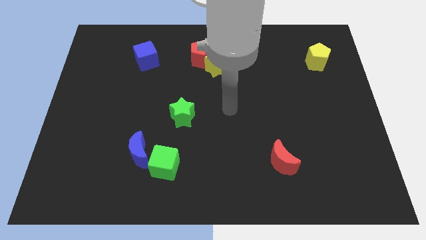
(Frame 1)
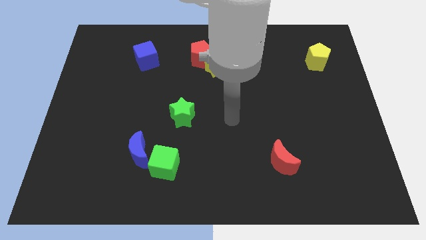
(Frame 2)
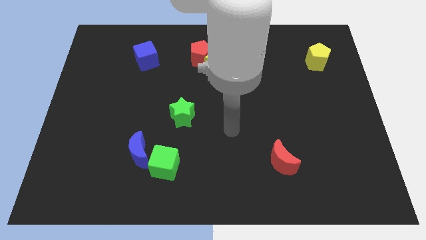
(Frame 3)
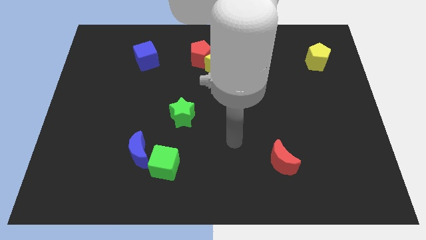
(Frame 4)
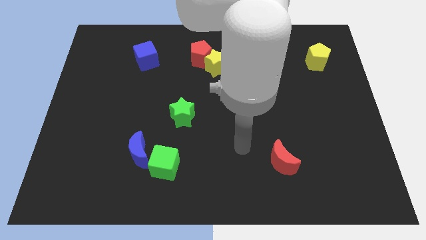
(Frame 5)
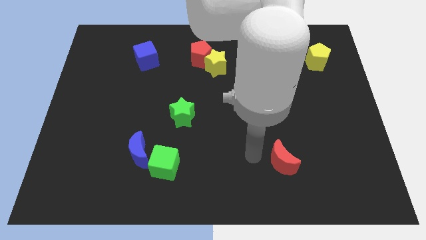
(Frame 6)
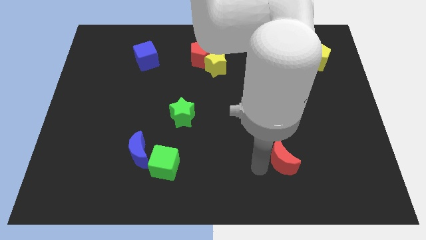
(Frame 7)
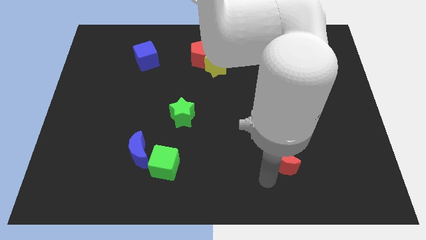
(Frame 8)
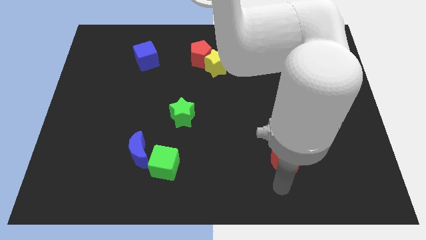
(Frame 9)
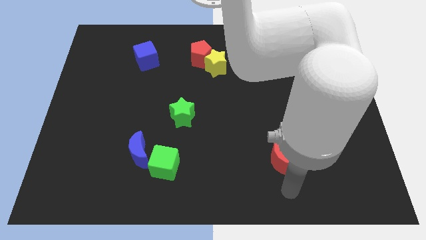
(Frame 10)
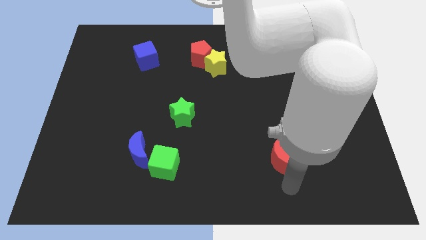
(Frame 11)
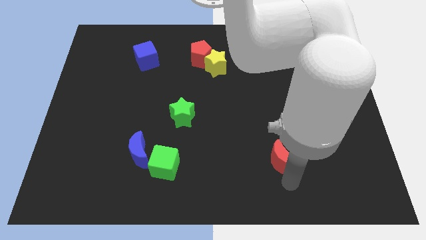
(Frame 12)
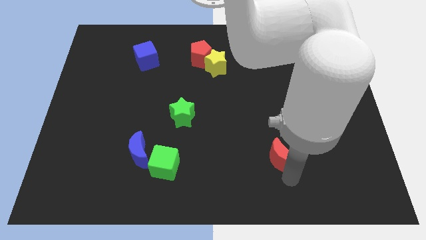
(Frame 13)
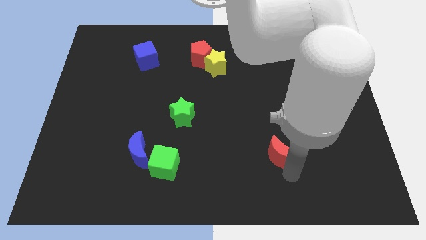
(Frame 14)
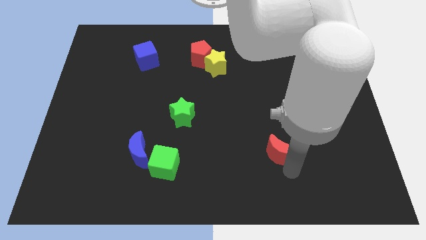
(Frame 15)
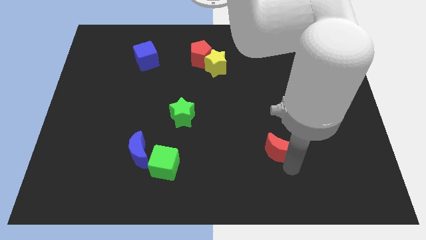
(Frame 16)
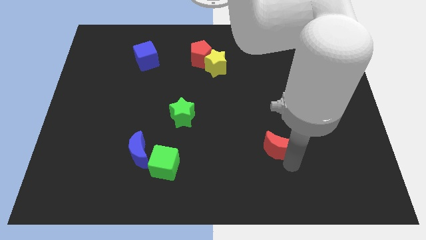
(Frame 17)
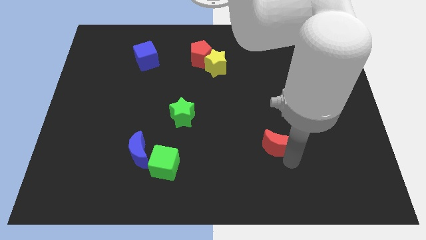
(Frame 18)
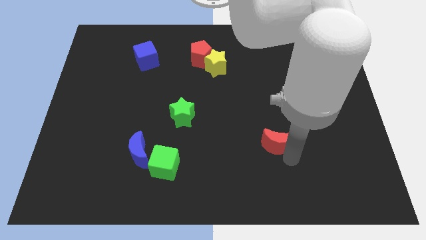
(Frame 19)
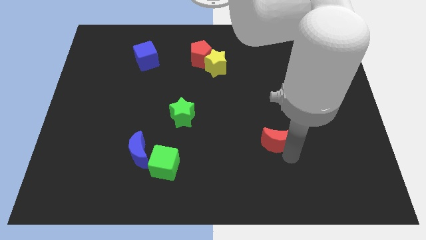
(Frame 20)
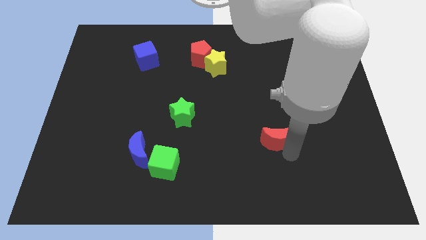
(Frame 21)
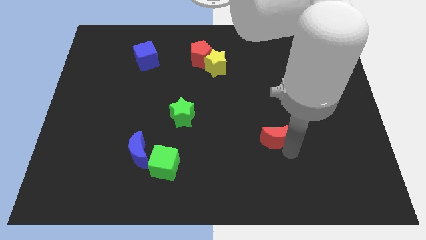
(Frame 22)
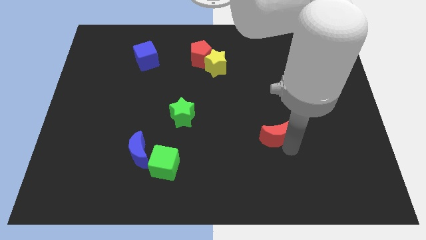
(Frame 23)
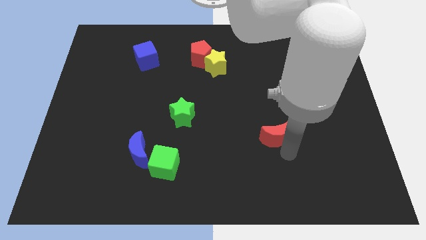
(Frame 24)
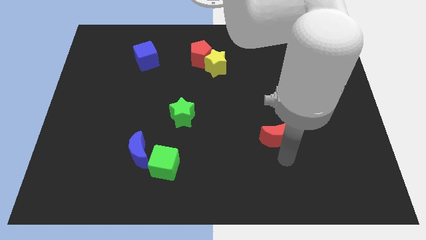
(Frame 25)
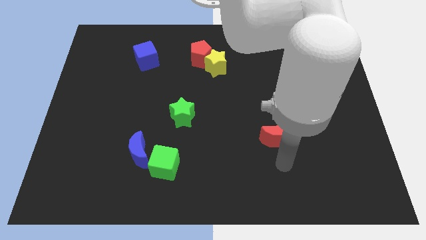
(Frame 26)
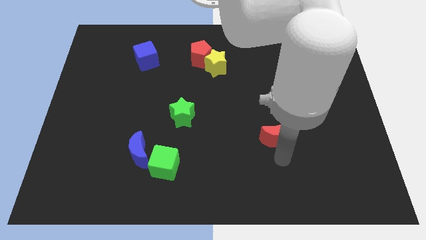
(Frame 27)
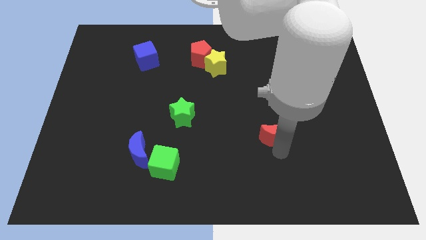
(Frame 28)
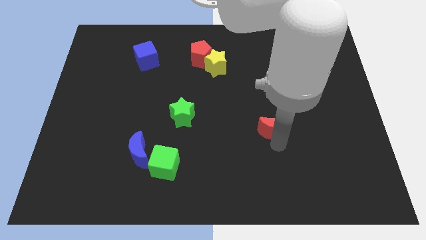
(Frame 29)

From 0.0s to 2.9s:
push the red moon a little up

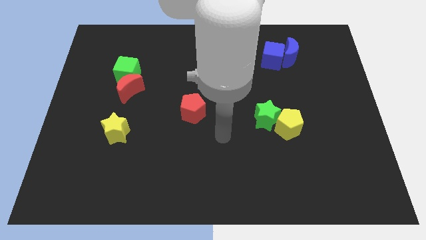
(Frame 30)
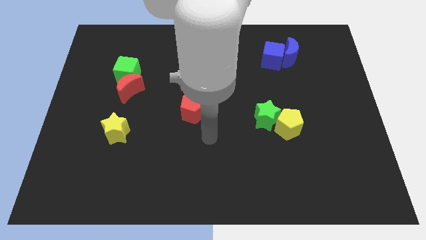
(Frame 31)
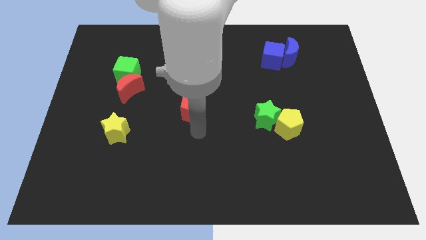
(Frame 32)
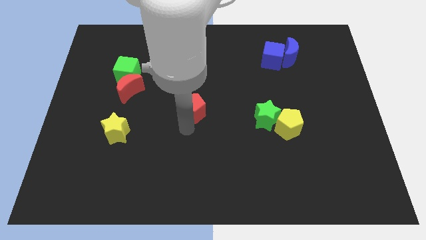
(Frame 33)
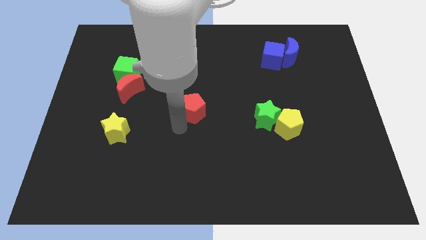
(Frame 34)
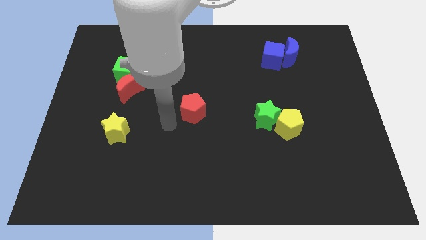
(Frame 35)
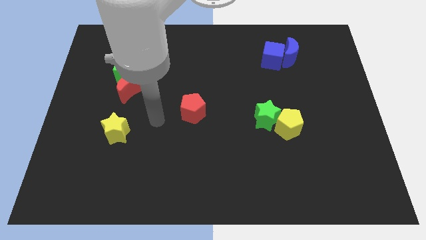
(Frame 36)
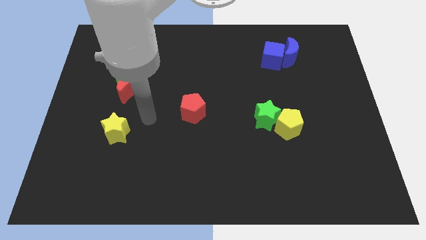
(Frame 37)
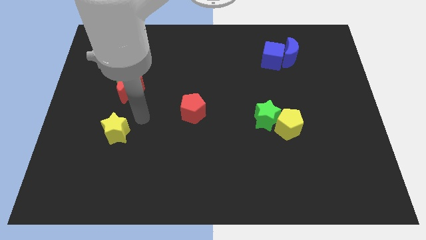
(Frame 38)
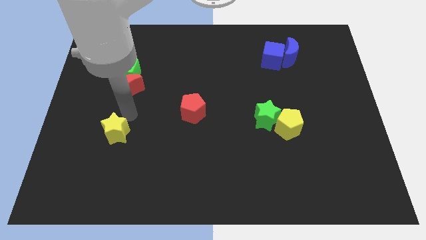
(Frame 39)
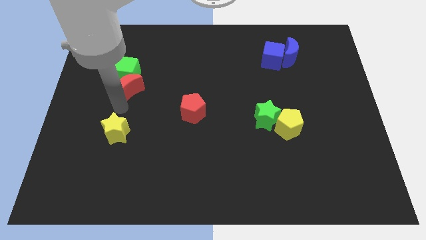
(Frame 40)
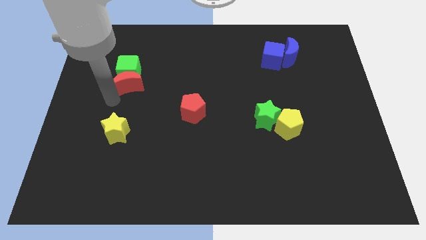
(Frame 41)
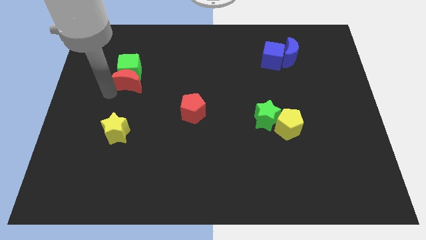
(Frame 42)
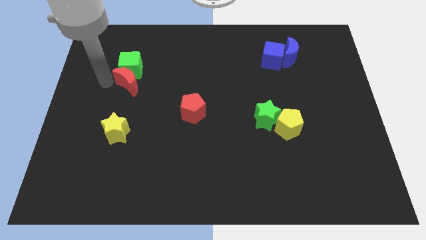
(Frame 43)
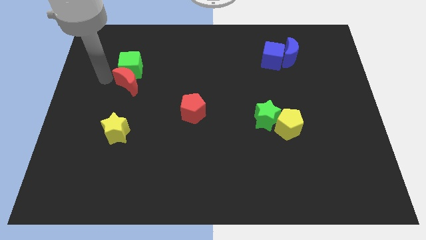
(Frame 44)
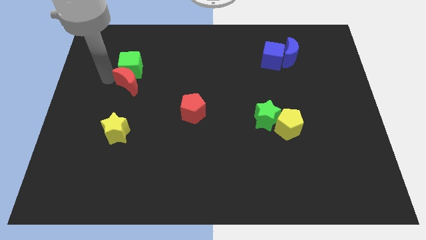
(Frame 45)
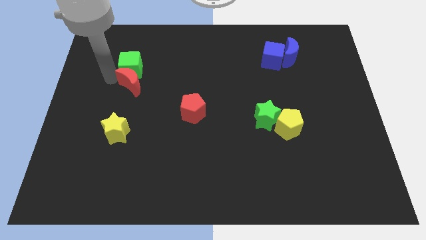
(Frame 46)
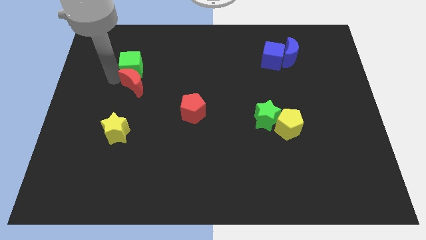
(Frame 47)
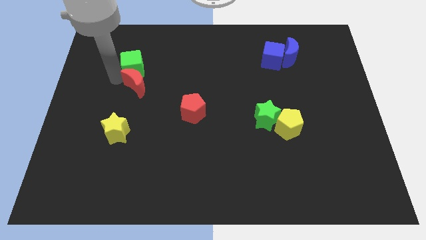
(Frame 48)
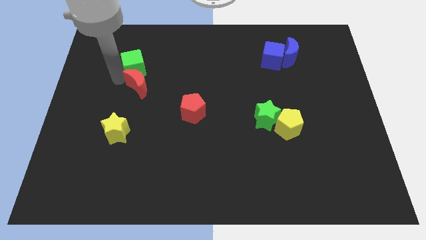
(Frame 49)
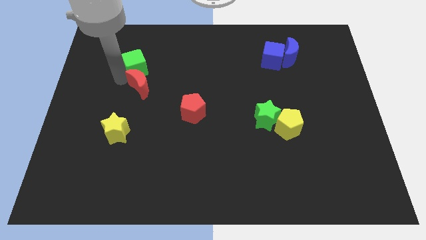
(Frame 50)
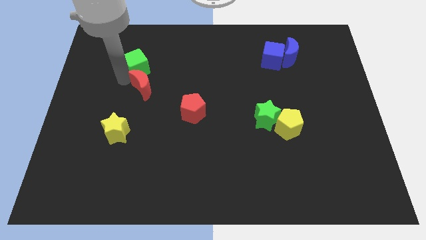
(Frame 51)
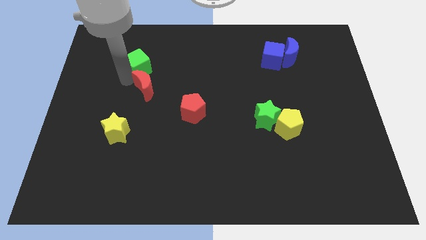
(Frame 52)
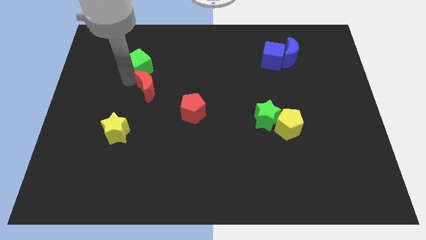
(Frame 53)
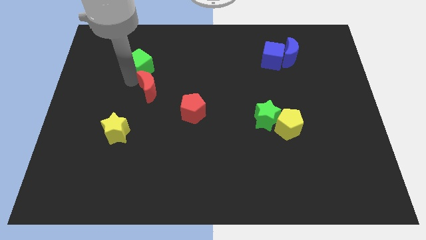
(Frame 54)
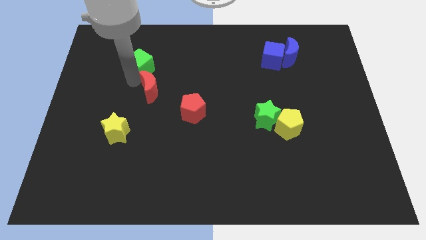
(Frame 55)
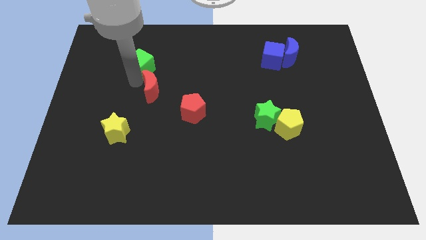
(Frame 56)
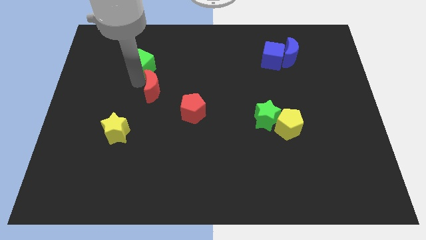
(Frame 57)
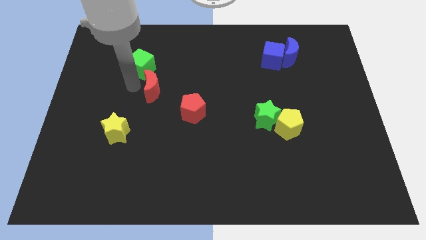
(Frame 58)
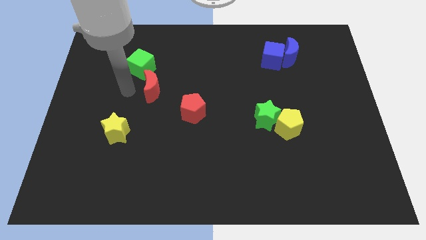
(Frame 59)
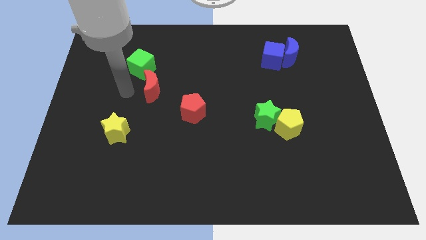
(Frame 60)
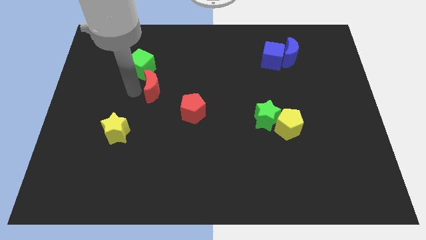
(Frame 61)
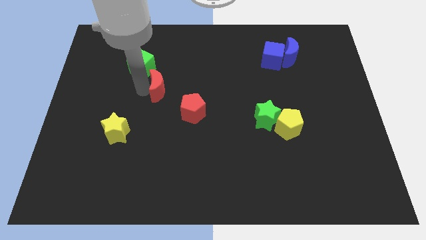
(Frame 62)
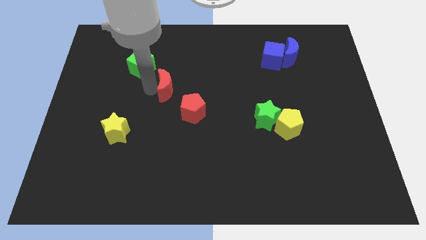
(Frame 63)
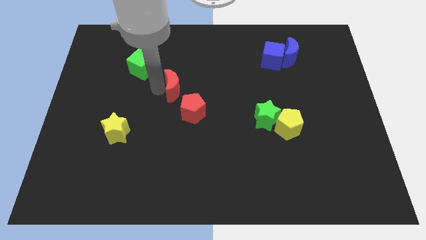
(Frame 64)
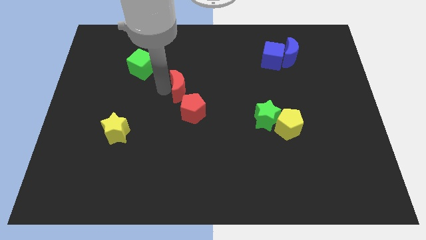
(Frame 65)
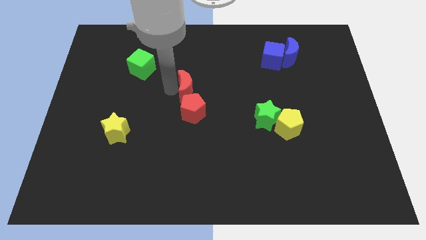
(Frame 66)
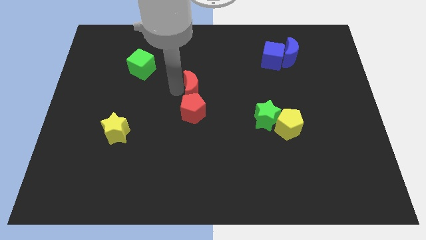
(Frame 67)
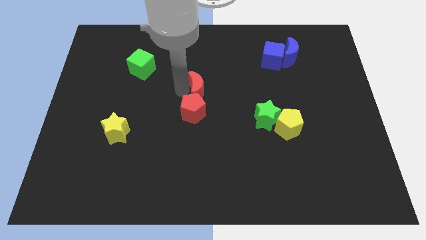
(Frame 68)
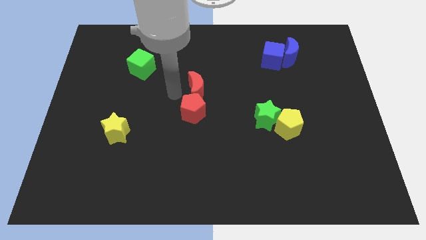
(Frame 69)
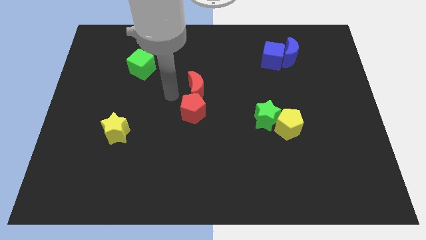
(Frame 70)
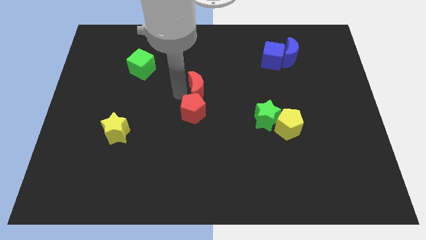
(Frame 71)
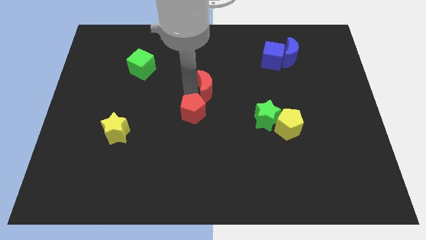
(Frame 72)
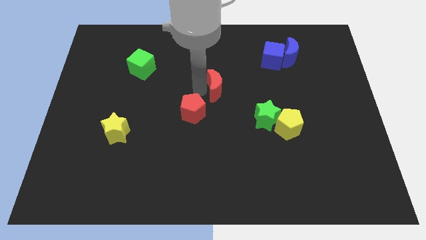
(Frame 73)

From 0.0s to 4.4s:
slide the red moon right

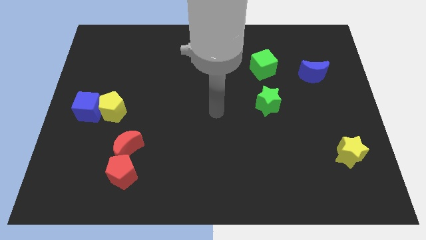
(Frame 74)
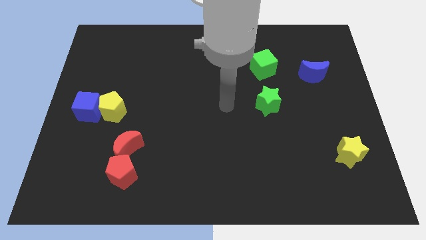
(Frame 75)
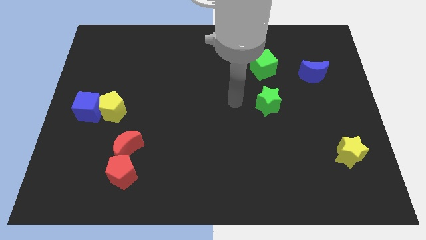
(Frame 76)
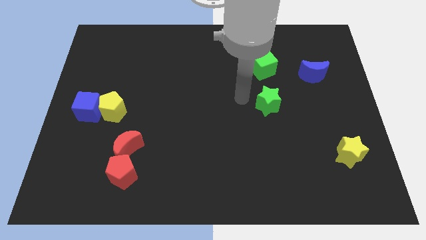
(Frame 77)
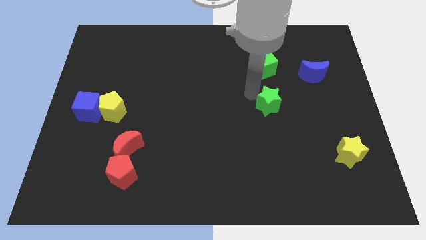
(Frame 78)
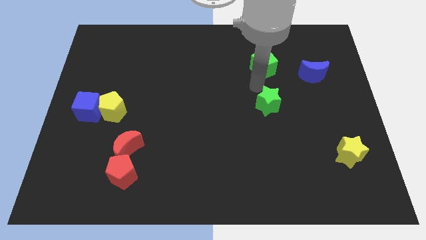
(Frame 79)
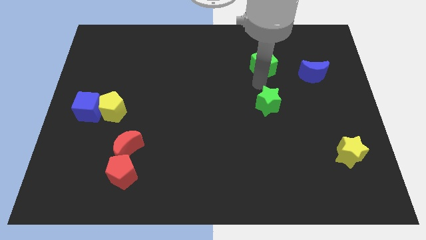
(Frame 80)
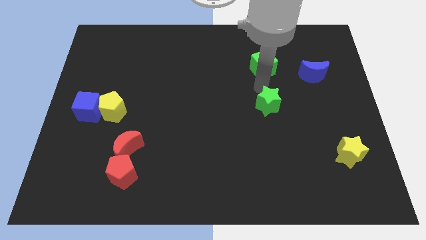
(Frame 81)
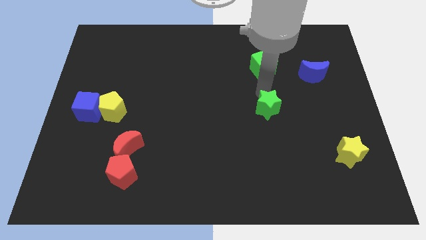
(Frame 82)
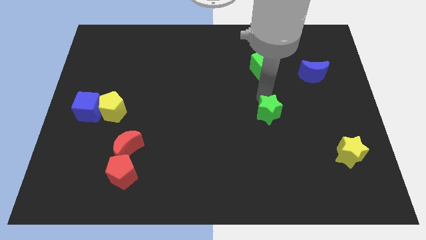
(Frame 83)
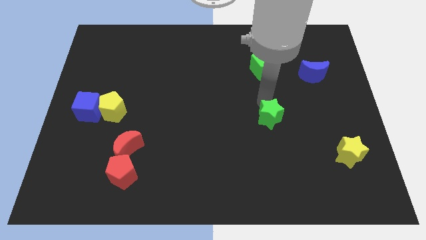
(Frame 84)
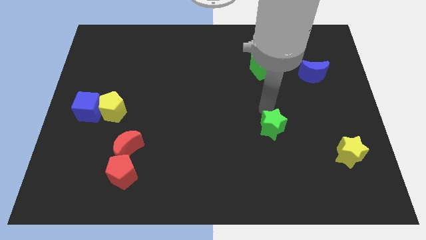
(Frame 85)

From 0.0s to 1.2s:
slide the green star a little bit downwards
